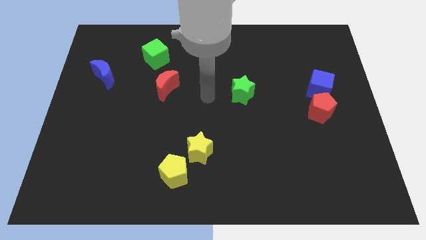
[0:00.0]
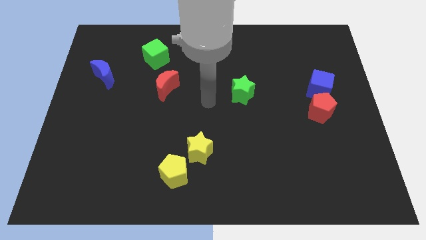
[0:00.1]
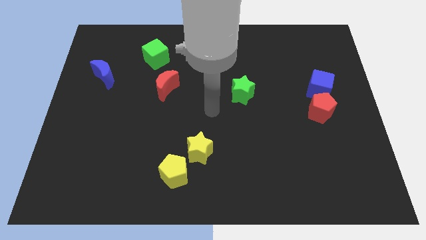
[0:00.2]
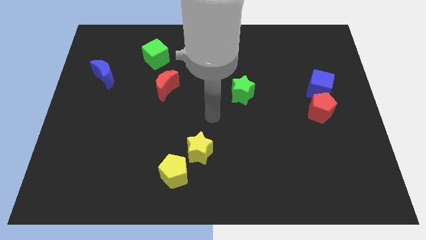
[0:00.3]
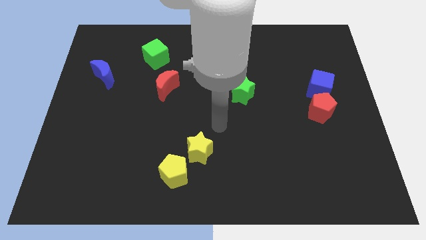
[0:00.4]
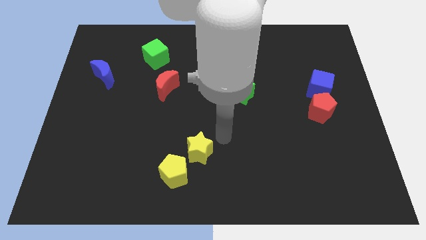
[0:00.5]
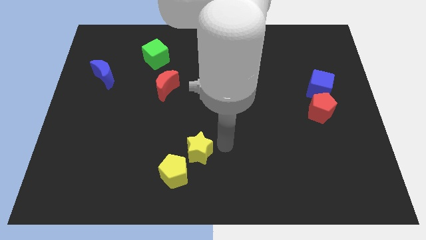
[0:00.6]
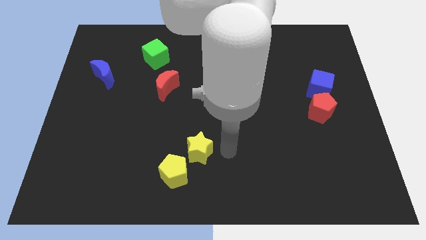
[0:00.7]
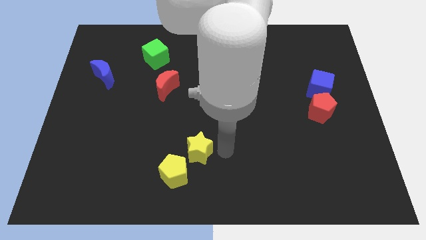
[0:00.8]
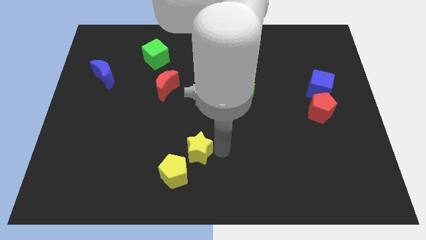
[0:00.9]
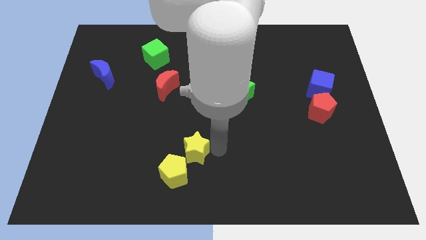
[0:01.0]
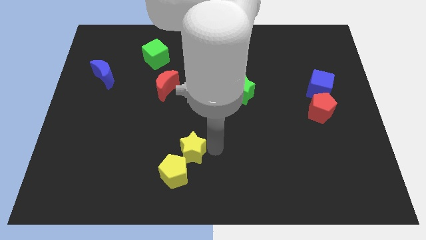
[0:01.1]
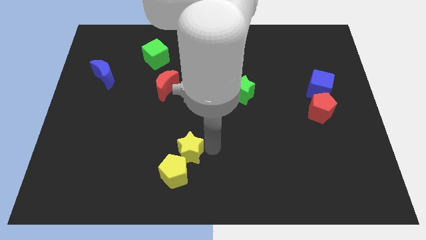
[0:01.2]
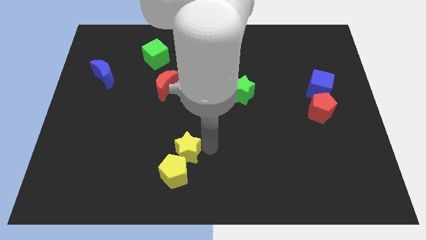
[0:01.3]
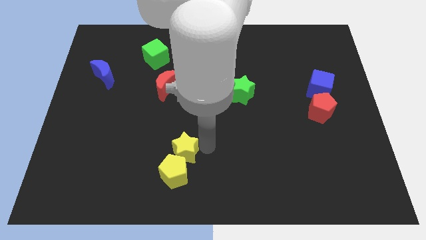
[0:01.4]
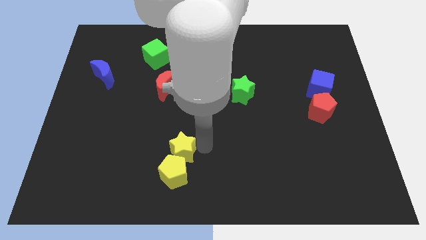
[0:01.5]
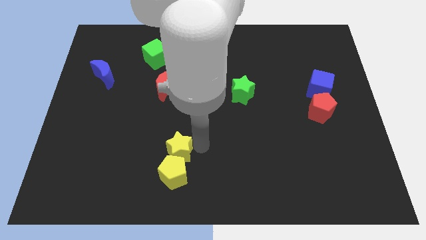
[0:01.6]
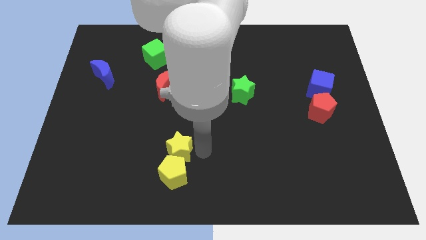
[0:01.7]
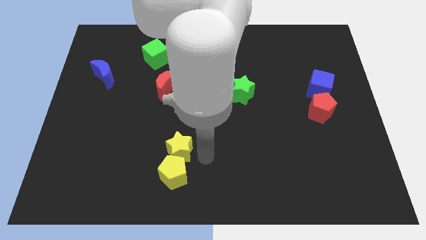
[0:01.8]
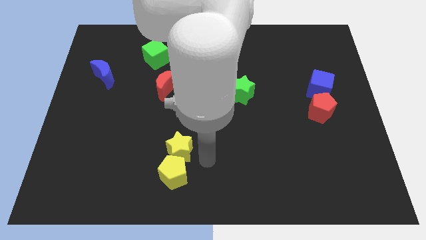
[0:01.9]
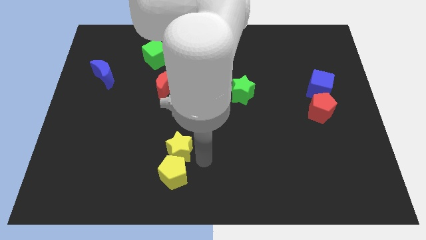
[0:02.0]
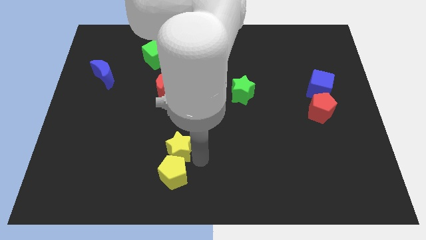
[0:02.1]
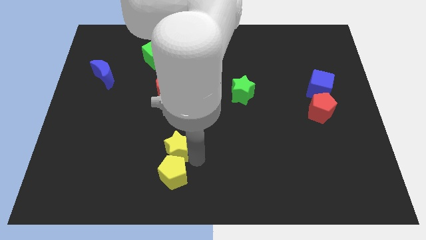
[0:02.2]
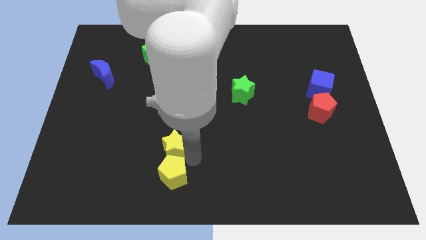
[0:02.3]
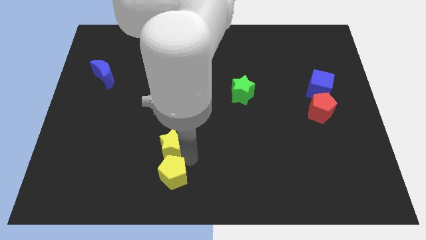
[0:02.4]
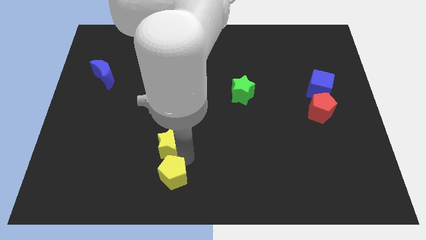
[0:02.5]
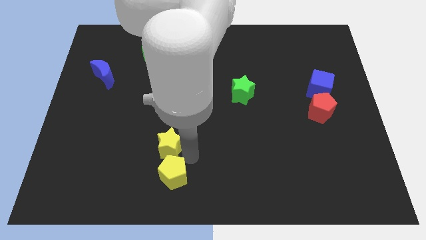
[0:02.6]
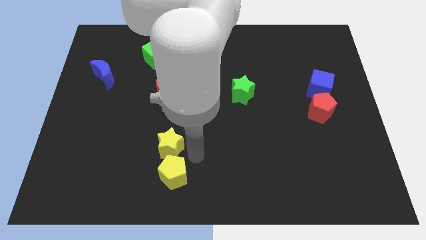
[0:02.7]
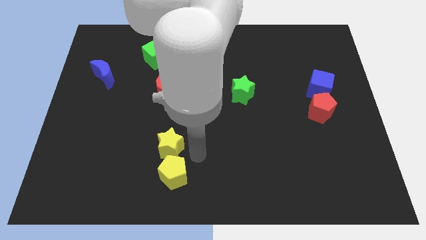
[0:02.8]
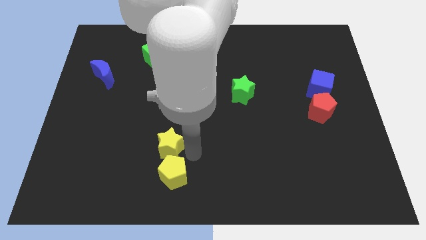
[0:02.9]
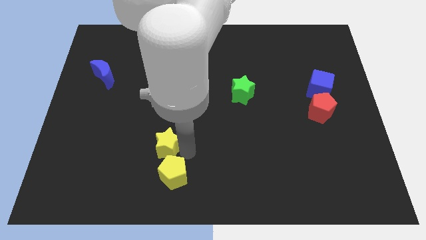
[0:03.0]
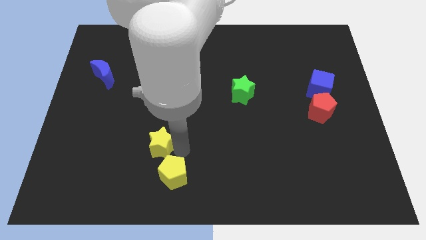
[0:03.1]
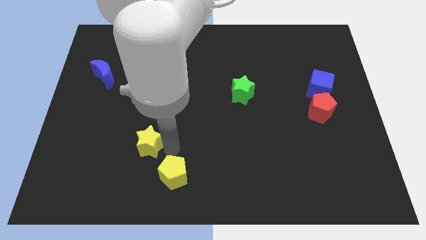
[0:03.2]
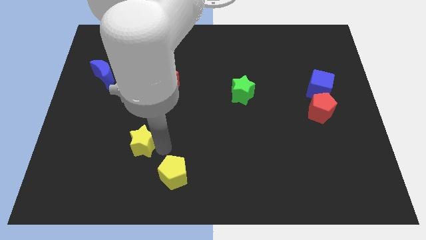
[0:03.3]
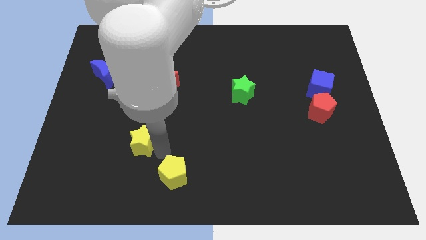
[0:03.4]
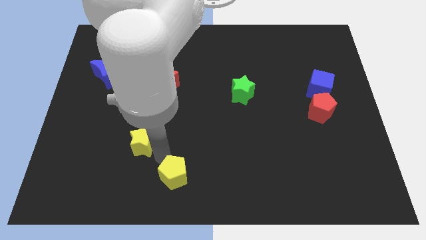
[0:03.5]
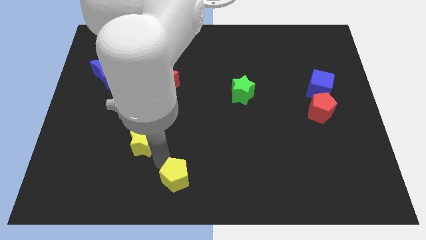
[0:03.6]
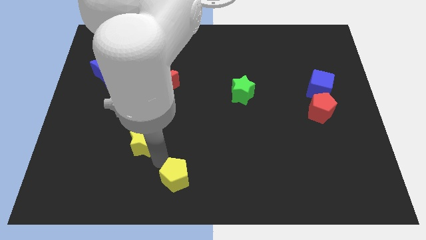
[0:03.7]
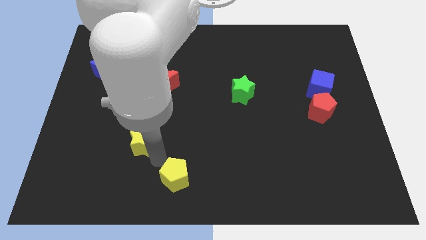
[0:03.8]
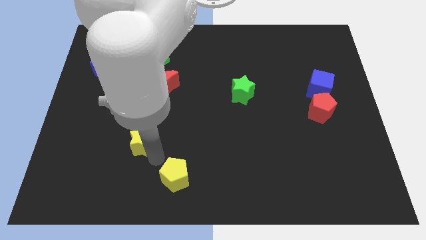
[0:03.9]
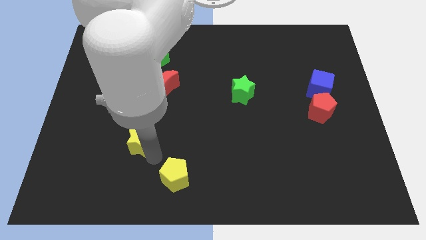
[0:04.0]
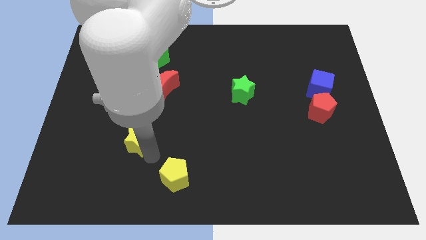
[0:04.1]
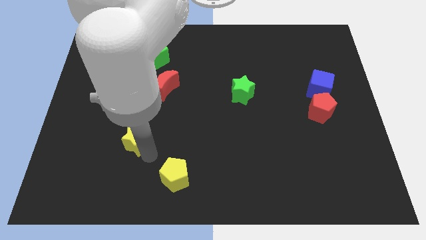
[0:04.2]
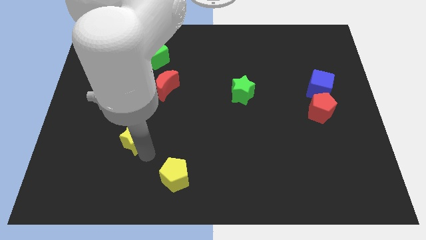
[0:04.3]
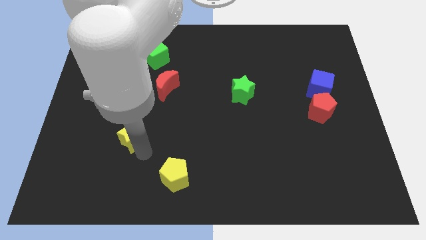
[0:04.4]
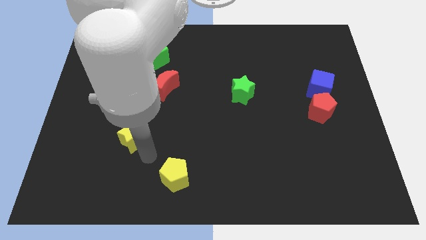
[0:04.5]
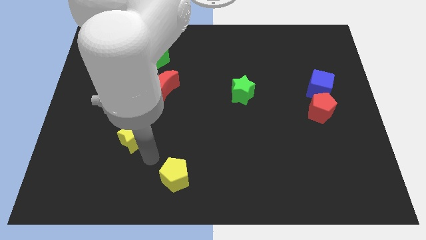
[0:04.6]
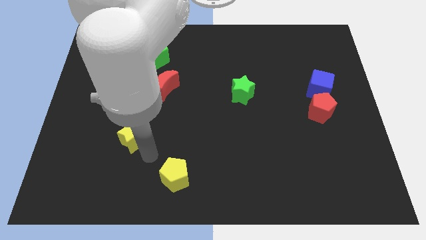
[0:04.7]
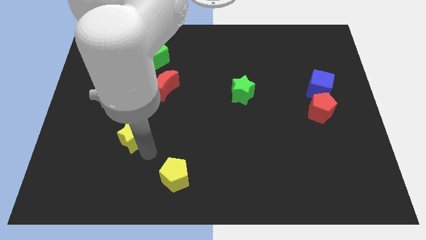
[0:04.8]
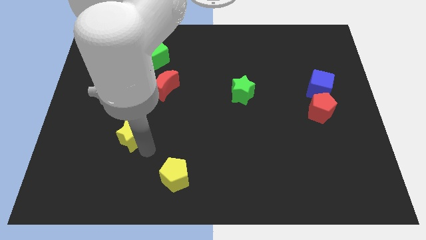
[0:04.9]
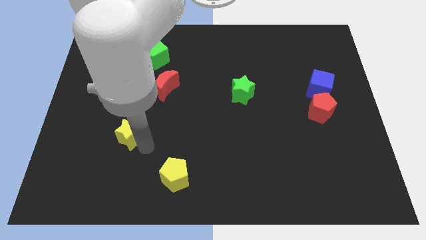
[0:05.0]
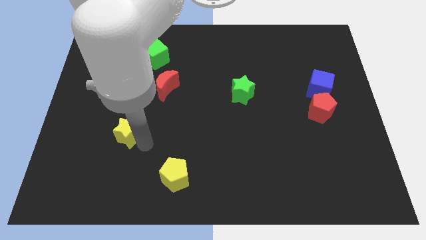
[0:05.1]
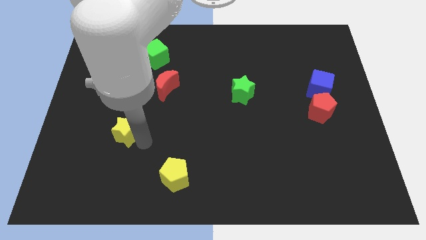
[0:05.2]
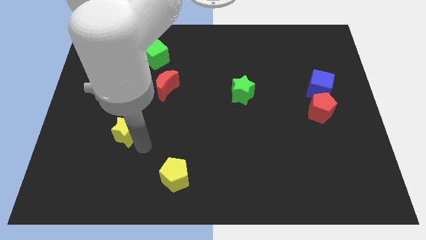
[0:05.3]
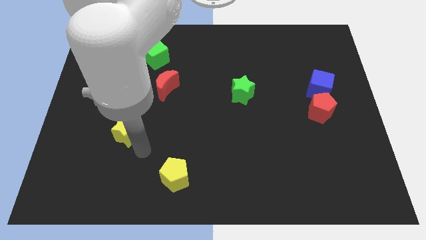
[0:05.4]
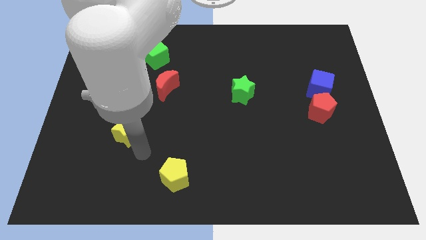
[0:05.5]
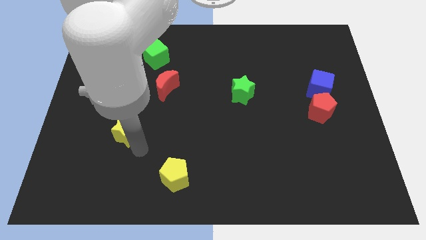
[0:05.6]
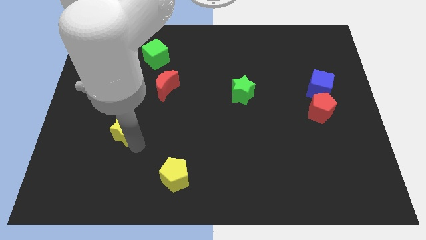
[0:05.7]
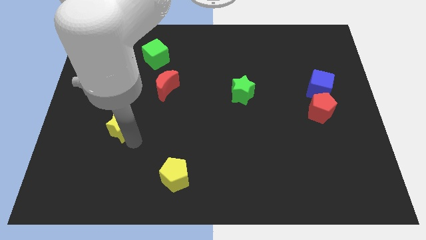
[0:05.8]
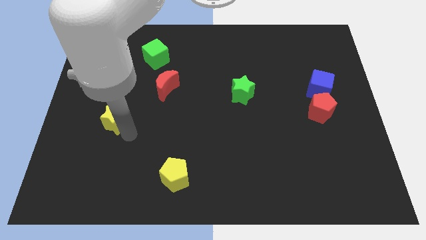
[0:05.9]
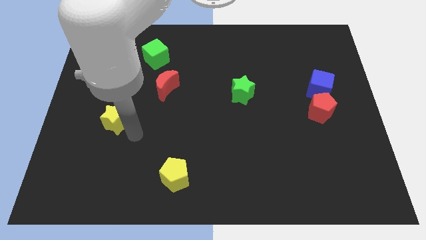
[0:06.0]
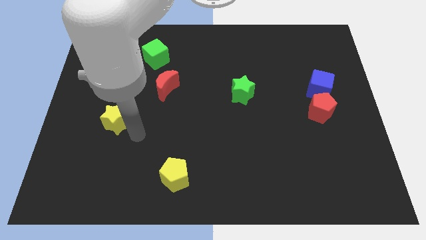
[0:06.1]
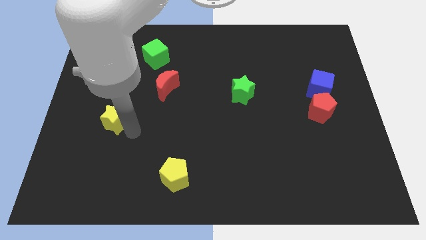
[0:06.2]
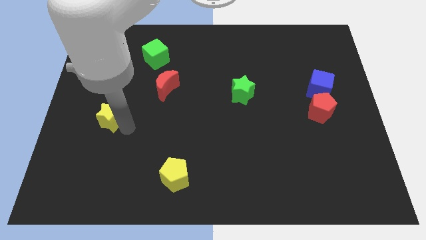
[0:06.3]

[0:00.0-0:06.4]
move the yellow star to the bottom of the blue moon
